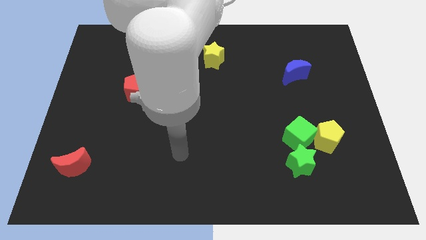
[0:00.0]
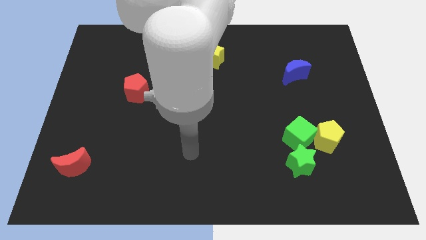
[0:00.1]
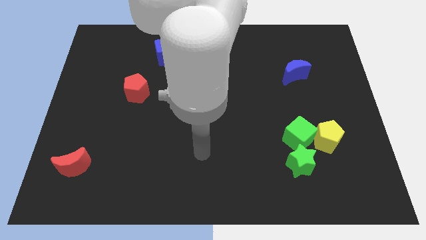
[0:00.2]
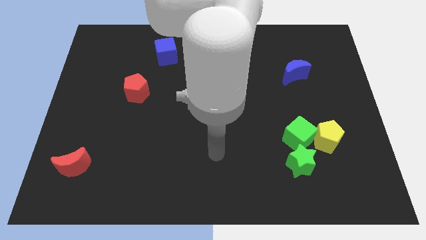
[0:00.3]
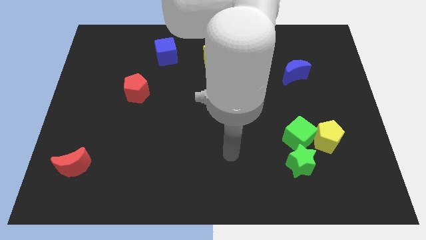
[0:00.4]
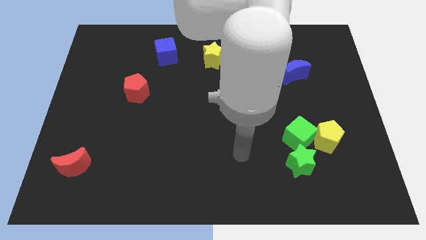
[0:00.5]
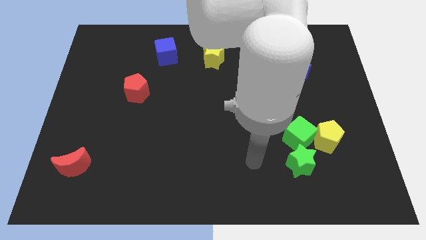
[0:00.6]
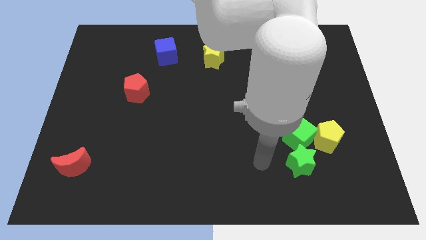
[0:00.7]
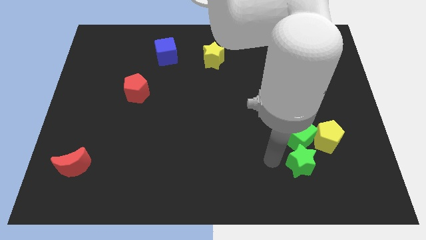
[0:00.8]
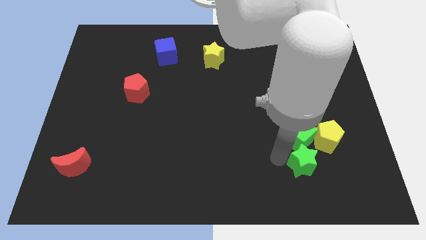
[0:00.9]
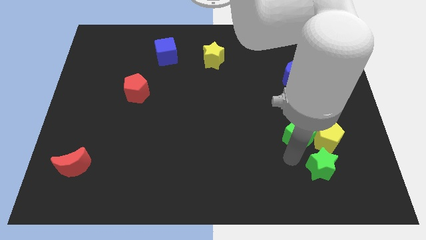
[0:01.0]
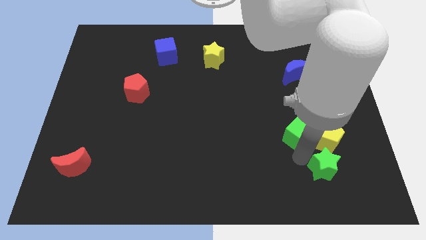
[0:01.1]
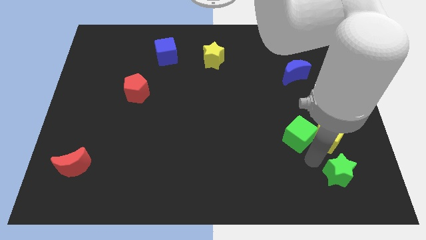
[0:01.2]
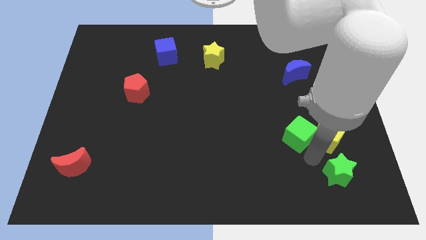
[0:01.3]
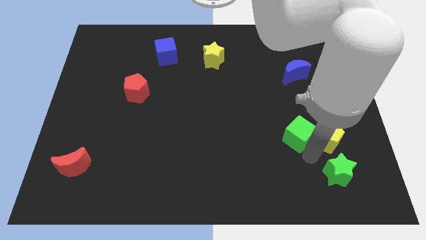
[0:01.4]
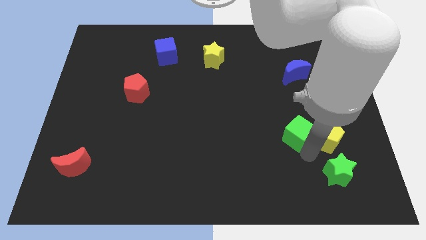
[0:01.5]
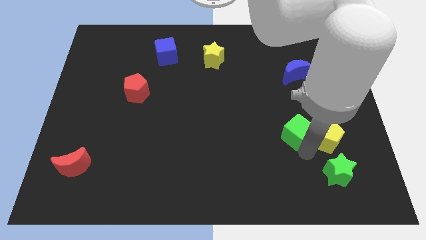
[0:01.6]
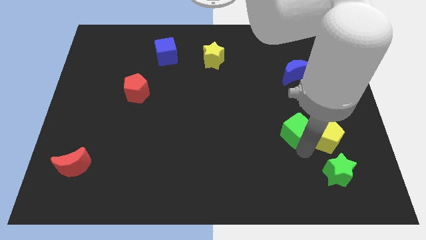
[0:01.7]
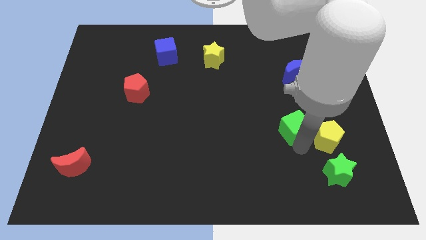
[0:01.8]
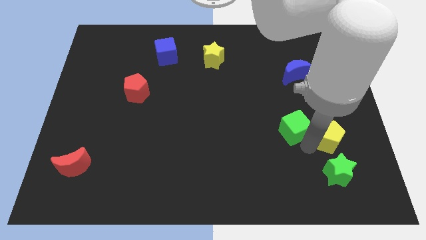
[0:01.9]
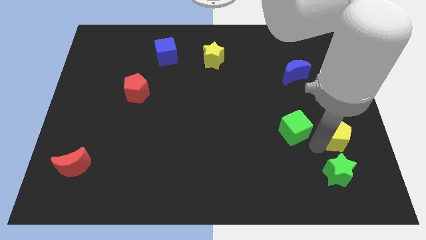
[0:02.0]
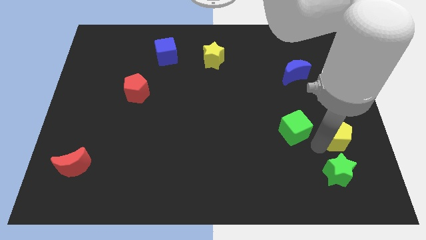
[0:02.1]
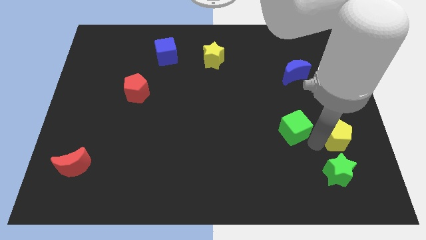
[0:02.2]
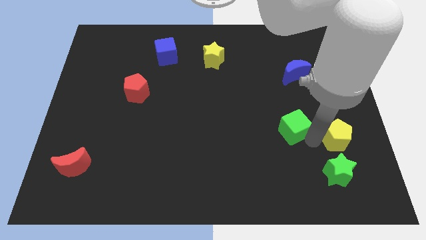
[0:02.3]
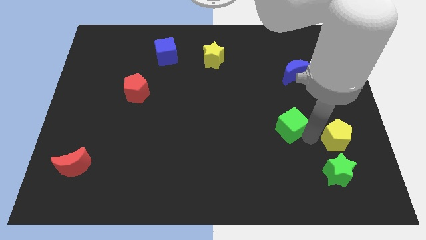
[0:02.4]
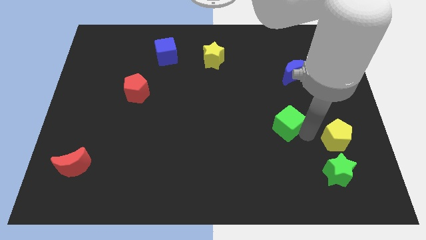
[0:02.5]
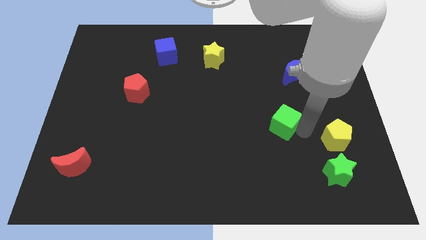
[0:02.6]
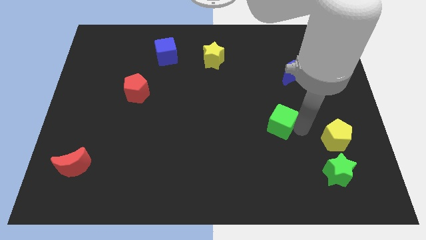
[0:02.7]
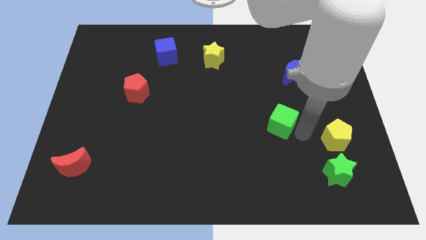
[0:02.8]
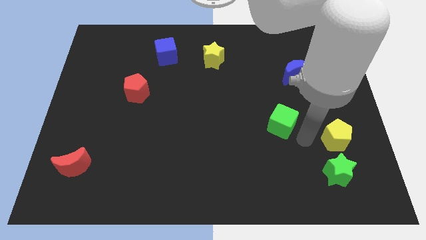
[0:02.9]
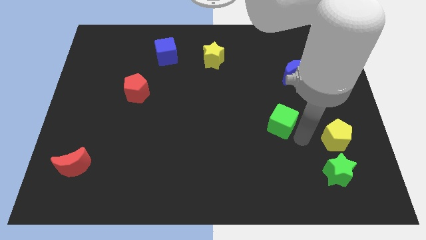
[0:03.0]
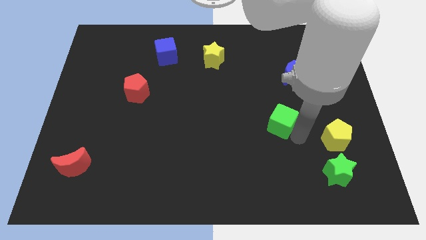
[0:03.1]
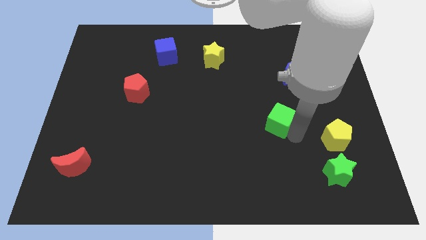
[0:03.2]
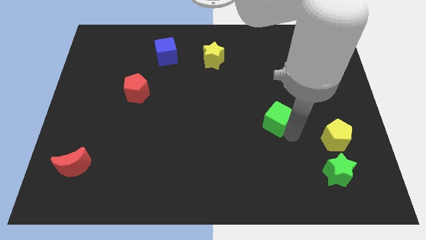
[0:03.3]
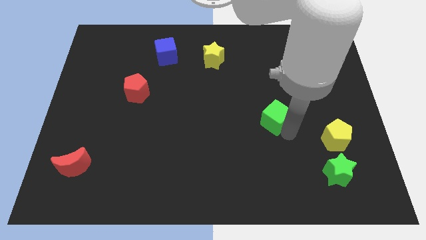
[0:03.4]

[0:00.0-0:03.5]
push the green cube upwards and left diagonally slightly

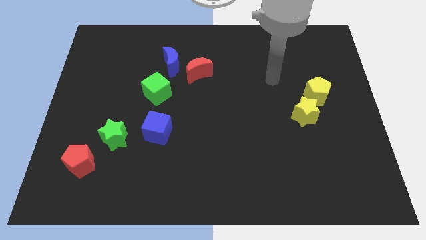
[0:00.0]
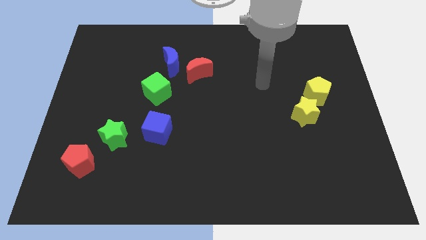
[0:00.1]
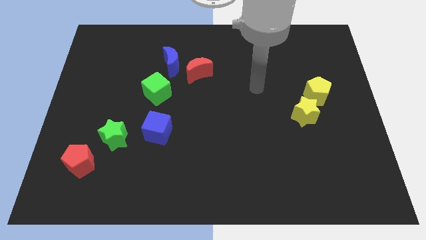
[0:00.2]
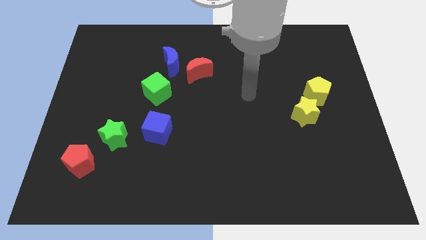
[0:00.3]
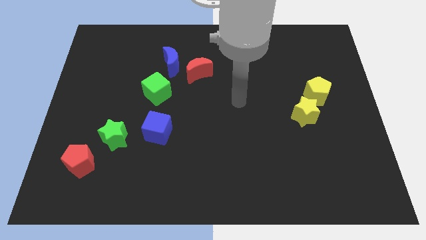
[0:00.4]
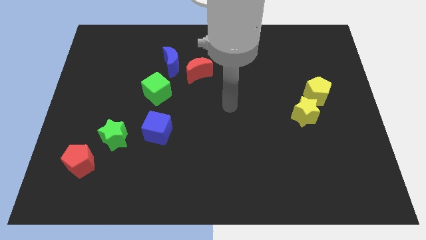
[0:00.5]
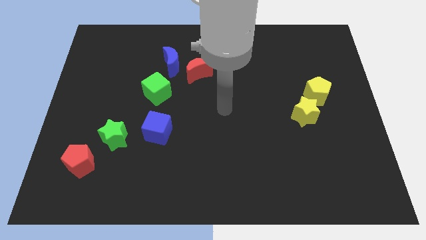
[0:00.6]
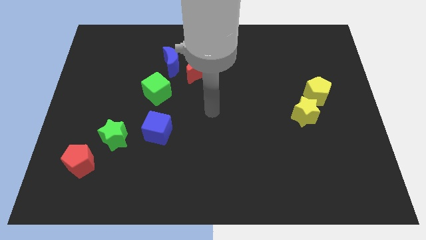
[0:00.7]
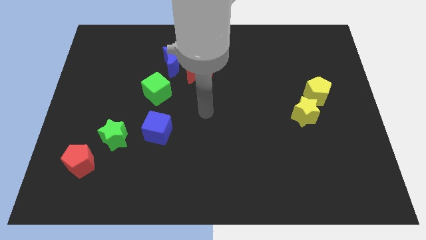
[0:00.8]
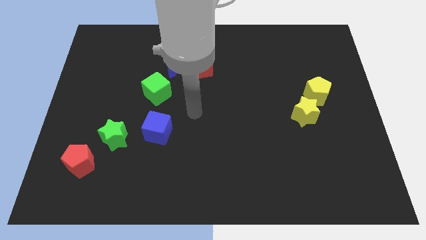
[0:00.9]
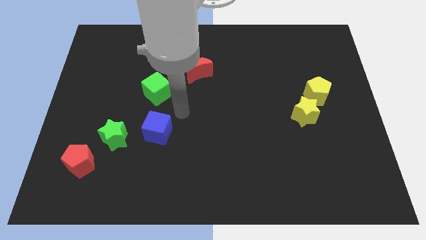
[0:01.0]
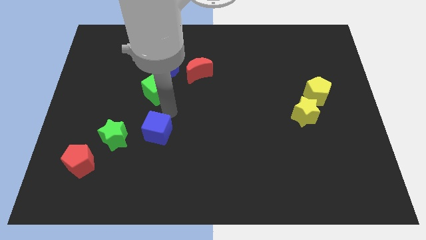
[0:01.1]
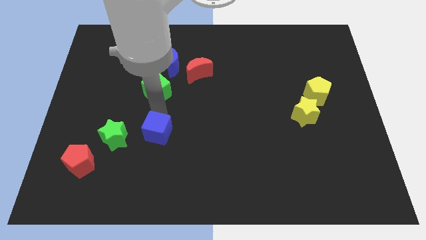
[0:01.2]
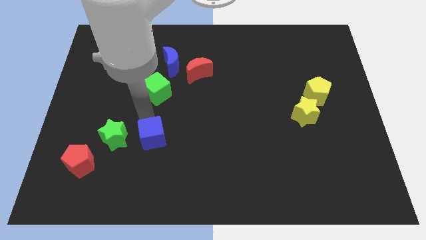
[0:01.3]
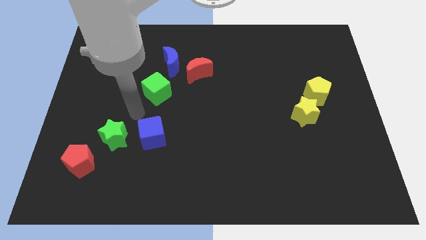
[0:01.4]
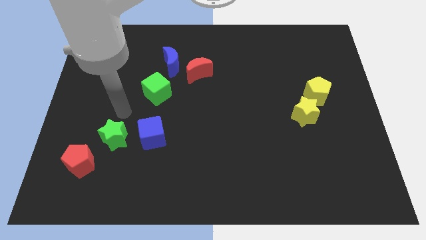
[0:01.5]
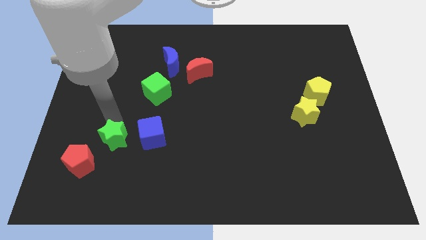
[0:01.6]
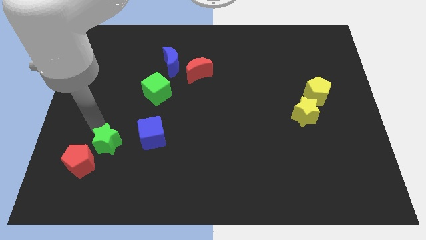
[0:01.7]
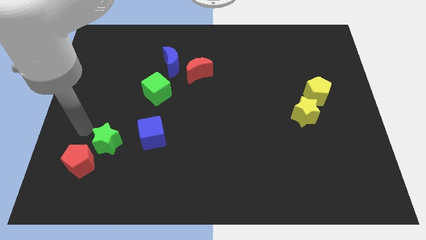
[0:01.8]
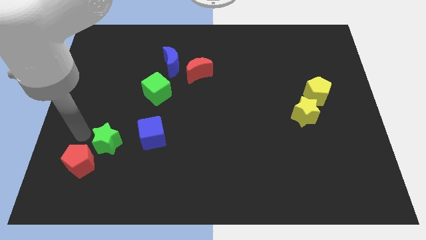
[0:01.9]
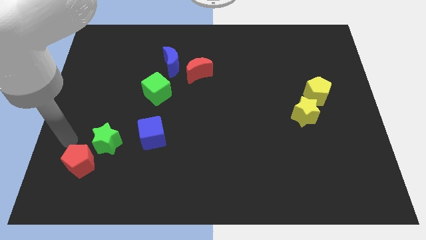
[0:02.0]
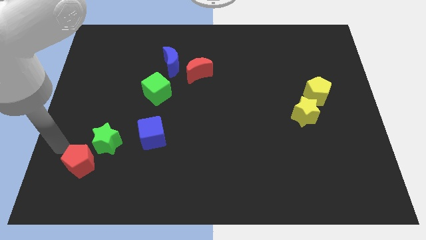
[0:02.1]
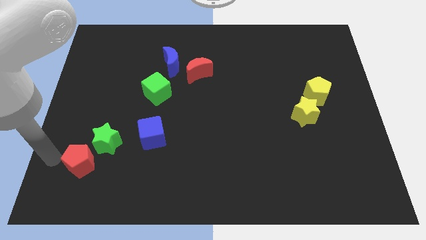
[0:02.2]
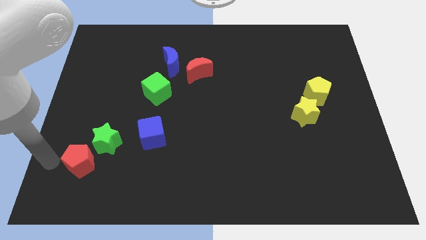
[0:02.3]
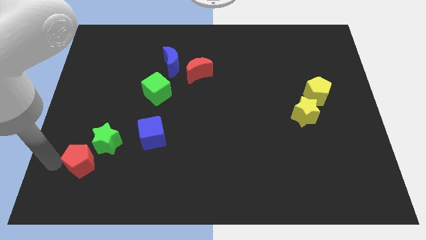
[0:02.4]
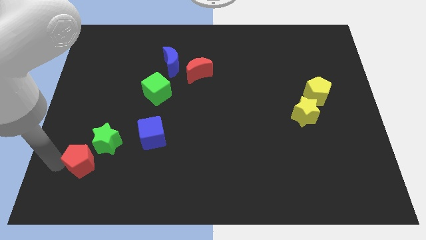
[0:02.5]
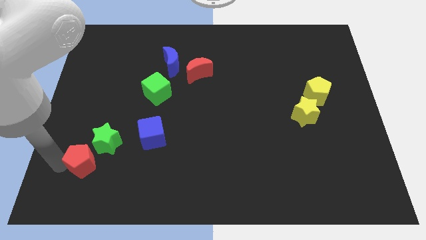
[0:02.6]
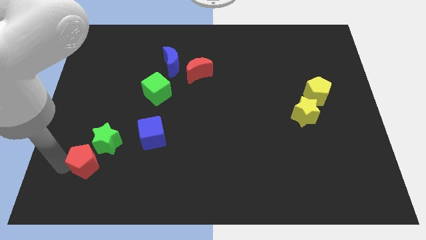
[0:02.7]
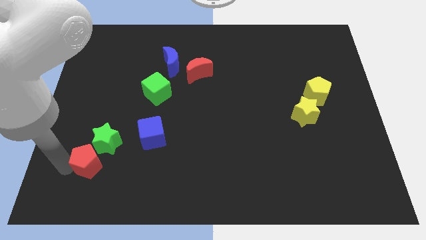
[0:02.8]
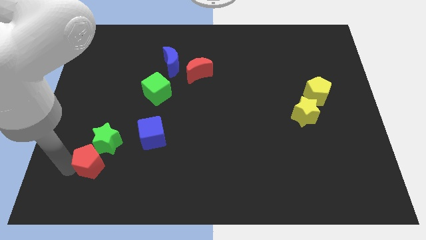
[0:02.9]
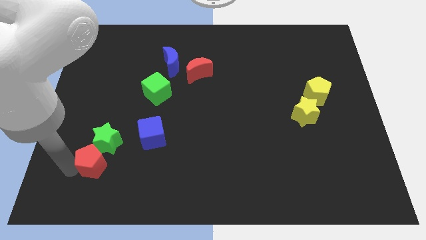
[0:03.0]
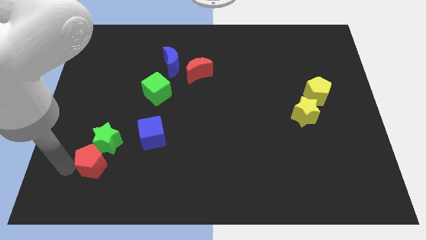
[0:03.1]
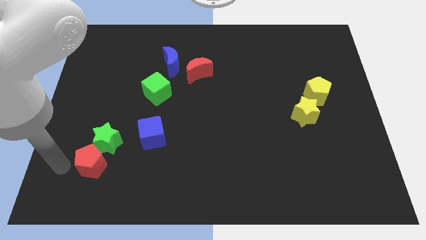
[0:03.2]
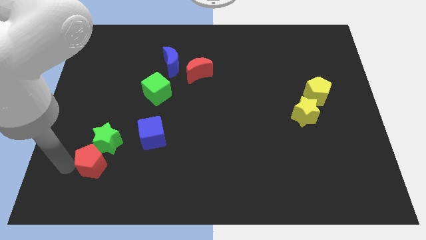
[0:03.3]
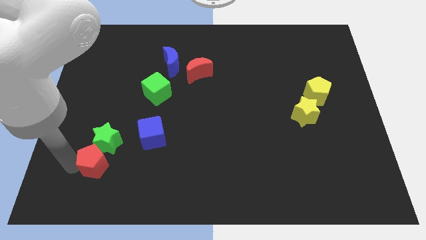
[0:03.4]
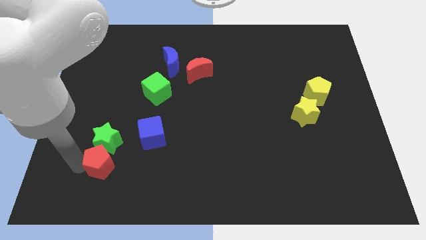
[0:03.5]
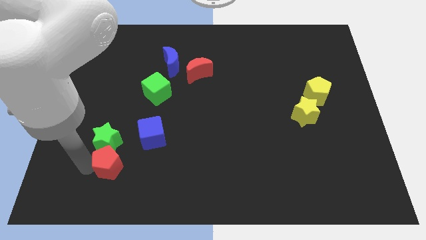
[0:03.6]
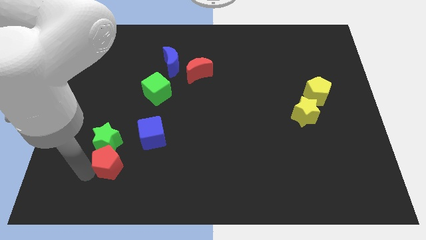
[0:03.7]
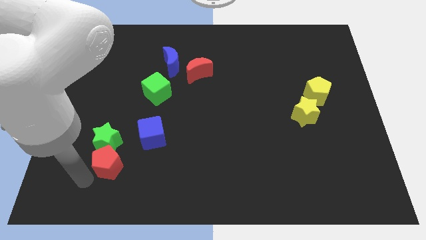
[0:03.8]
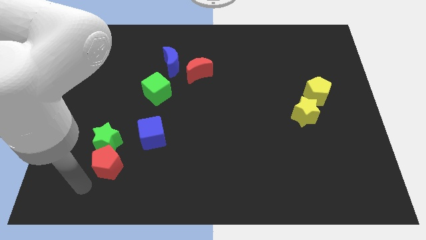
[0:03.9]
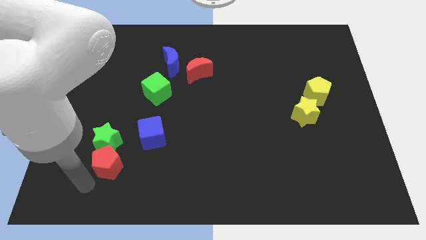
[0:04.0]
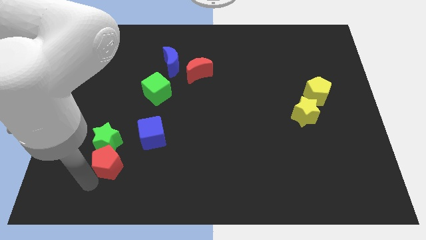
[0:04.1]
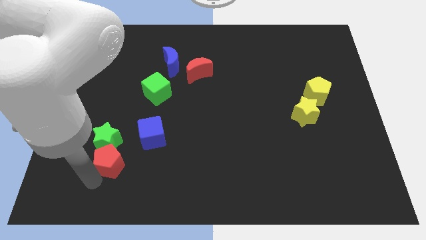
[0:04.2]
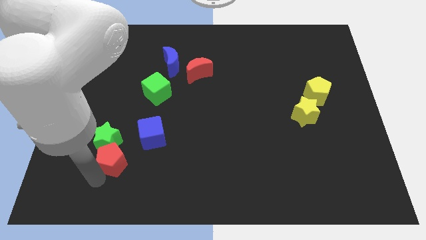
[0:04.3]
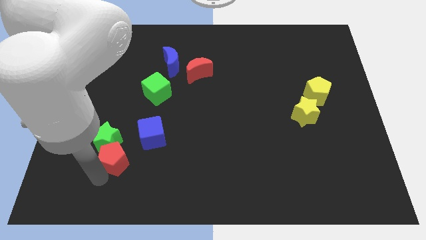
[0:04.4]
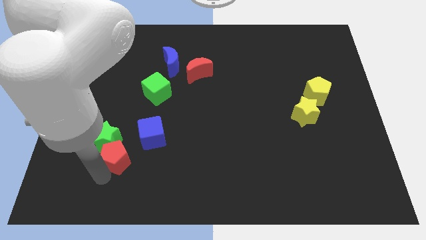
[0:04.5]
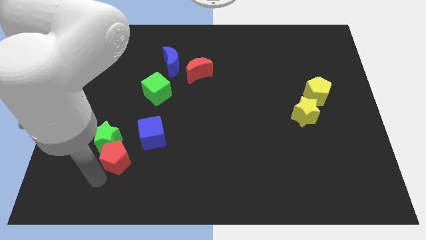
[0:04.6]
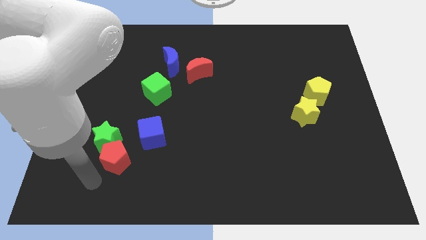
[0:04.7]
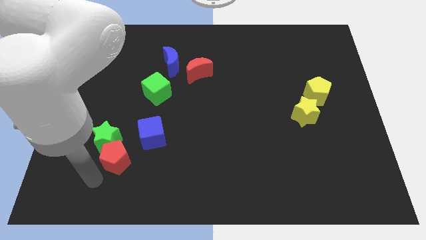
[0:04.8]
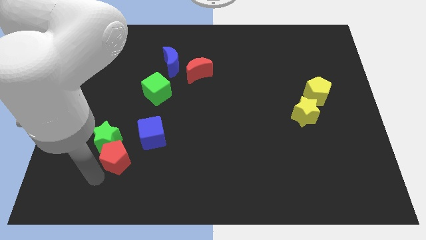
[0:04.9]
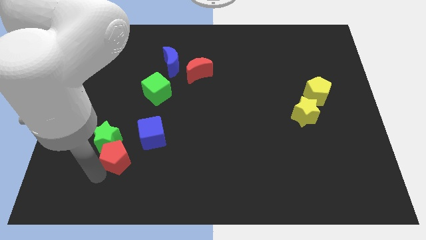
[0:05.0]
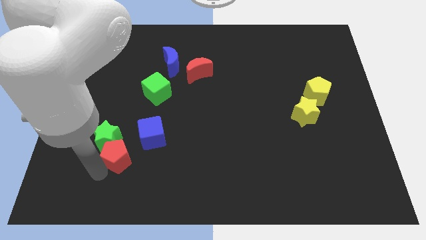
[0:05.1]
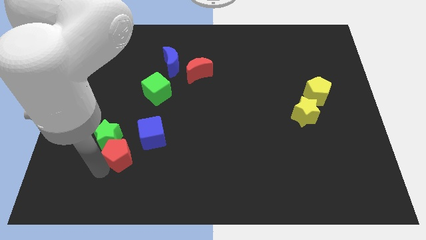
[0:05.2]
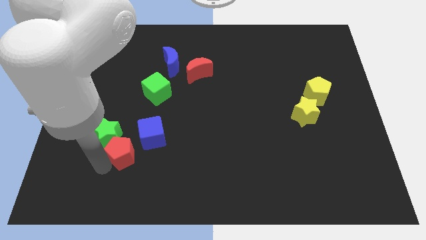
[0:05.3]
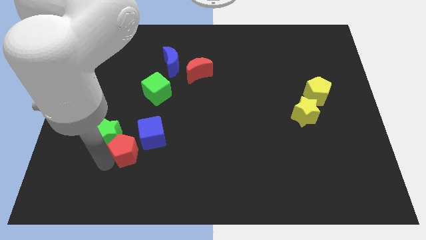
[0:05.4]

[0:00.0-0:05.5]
slide the red pentagon slightly upwards and right
